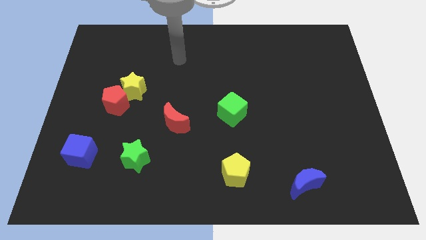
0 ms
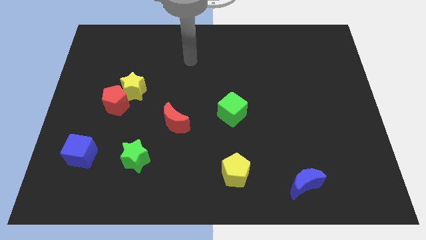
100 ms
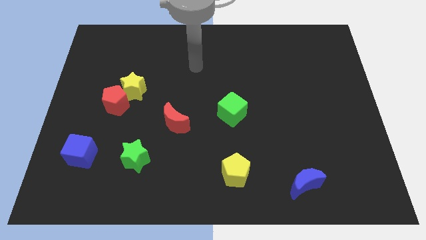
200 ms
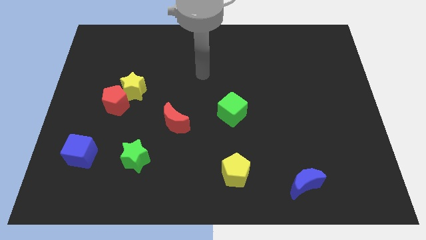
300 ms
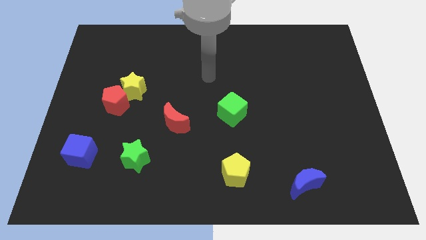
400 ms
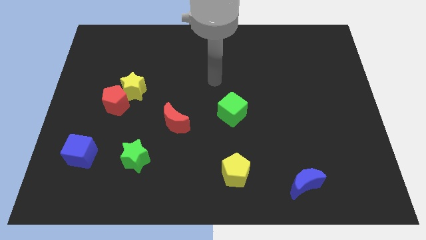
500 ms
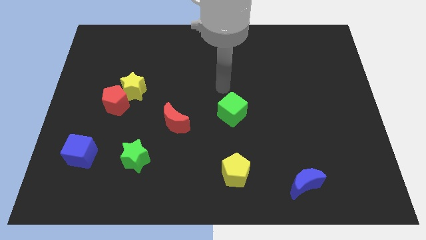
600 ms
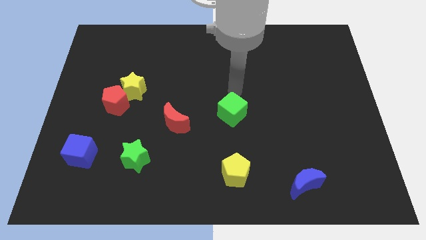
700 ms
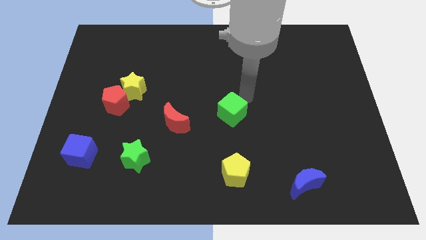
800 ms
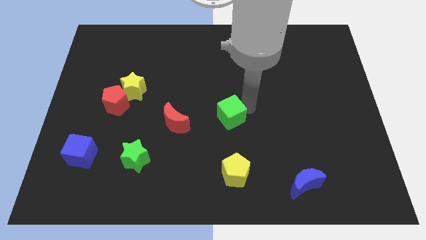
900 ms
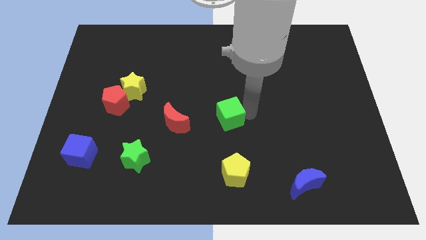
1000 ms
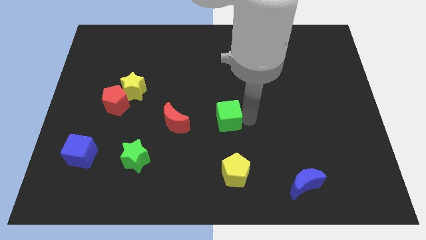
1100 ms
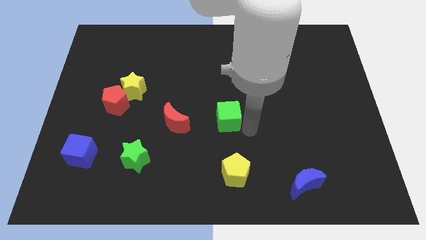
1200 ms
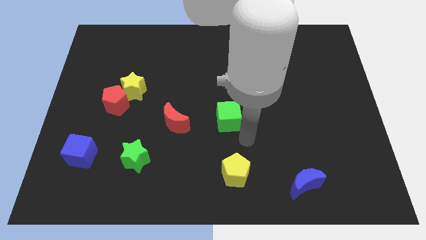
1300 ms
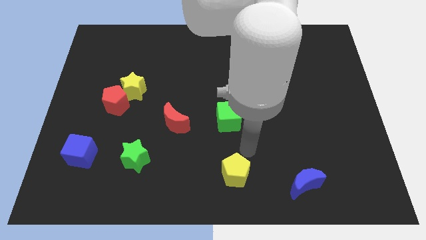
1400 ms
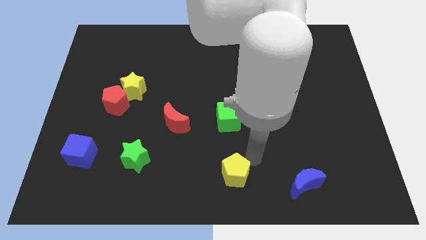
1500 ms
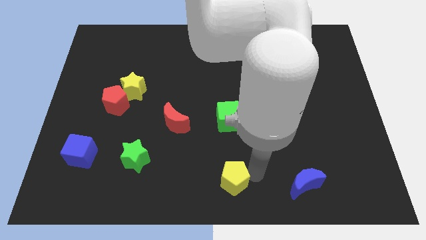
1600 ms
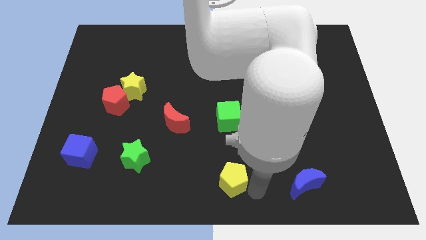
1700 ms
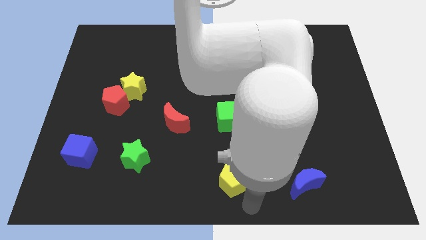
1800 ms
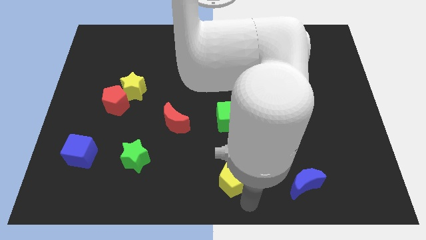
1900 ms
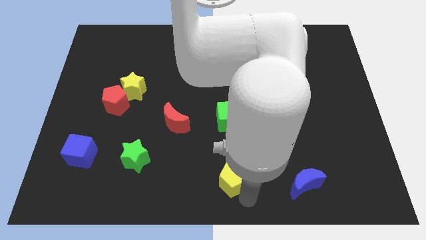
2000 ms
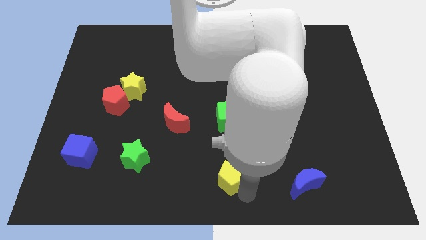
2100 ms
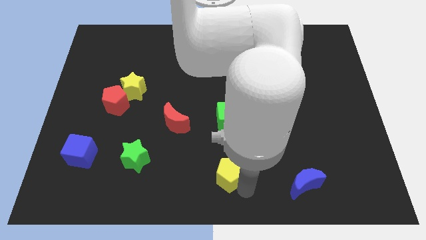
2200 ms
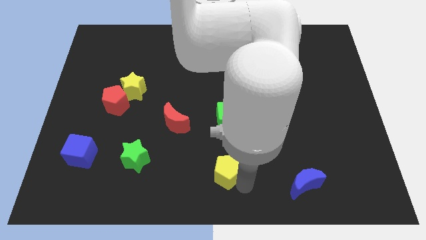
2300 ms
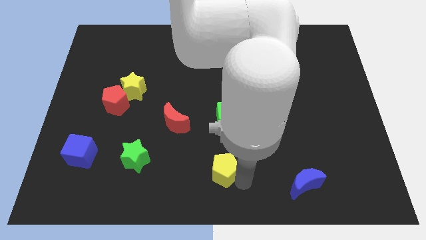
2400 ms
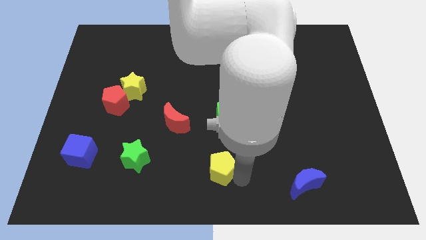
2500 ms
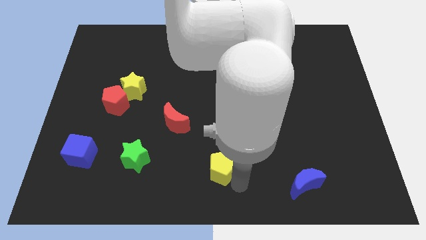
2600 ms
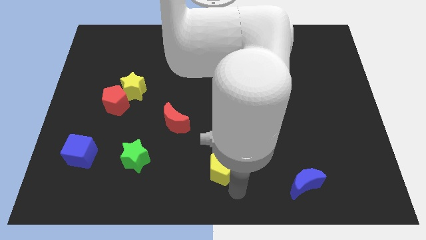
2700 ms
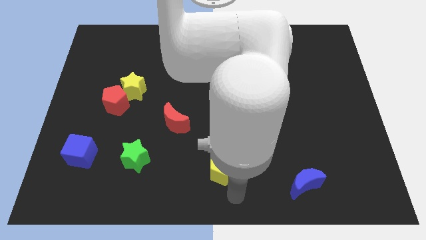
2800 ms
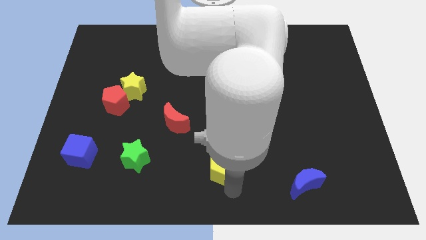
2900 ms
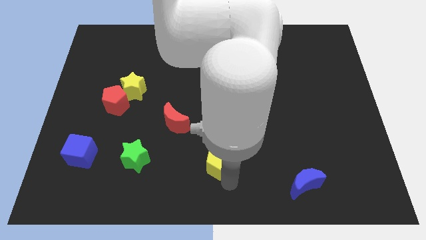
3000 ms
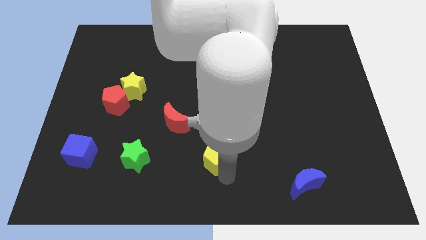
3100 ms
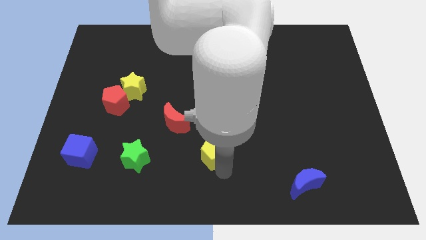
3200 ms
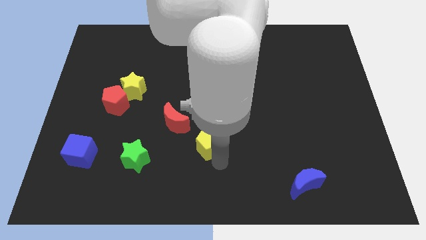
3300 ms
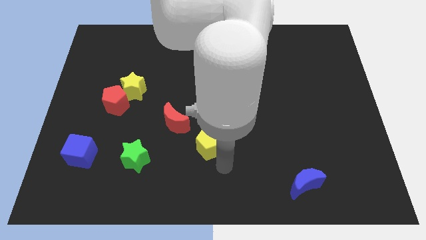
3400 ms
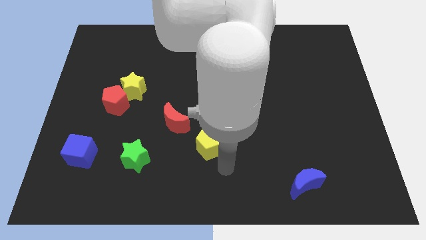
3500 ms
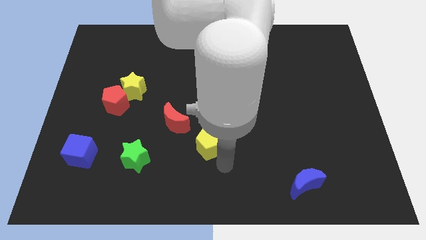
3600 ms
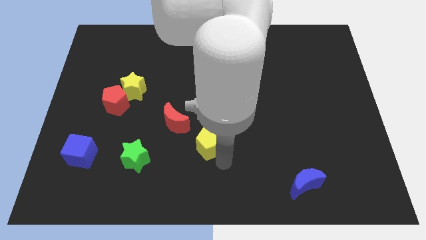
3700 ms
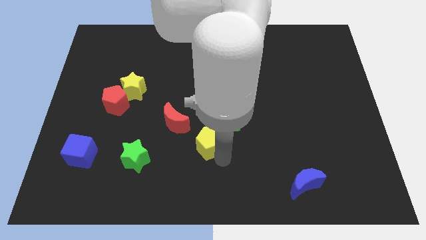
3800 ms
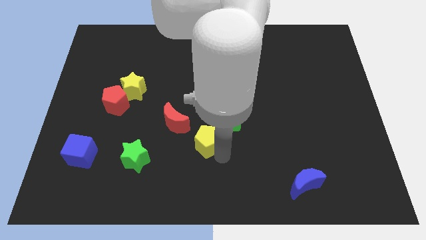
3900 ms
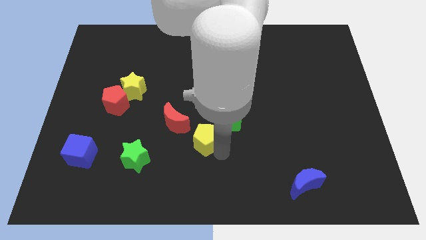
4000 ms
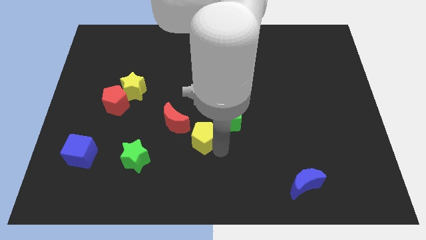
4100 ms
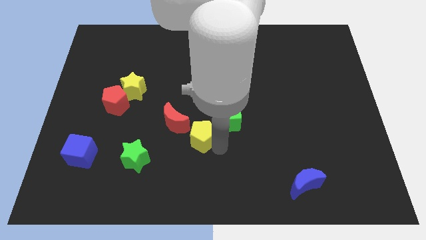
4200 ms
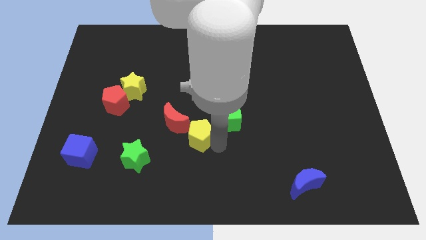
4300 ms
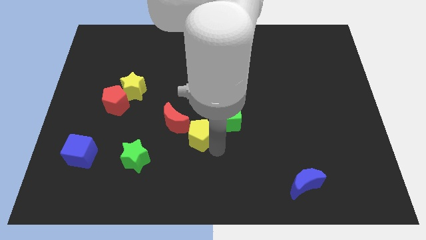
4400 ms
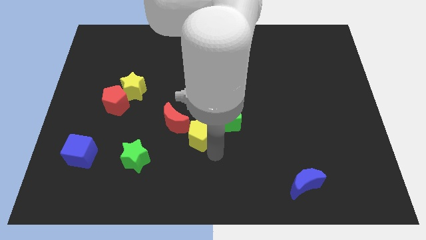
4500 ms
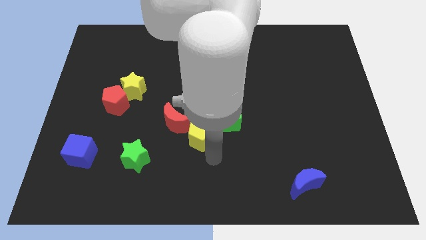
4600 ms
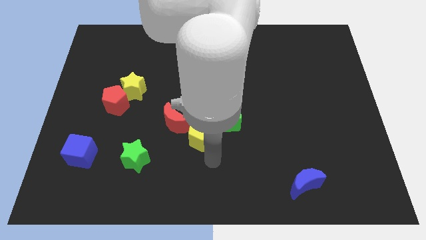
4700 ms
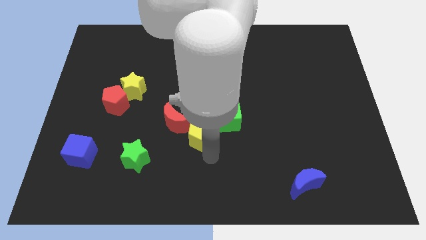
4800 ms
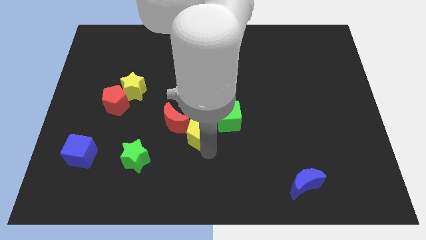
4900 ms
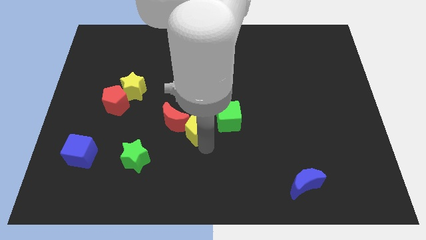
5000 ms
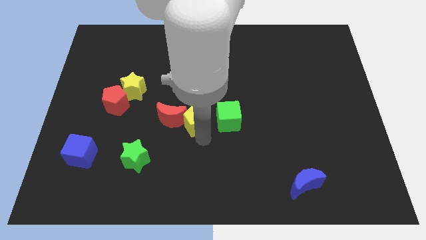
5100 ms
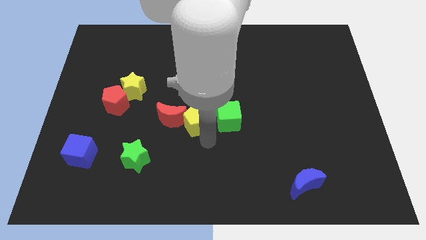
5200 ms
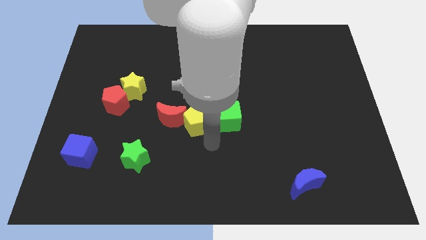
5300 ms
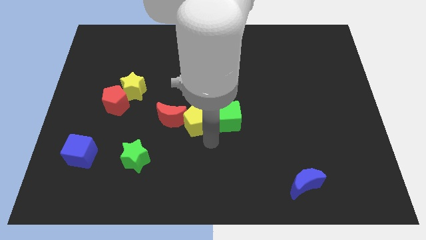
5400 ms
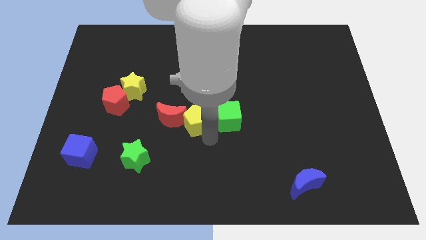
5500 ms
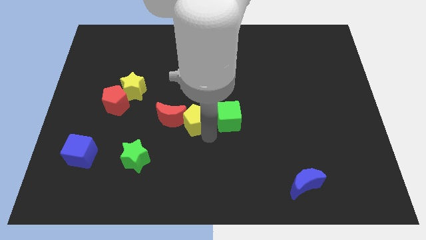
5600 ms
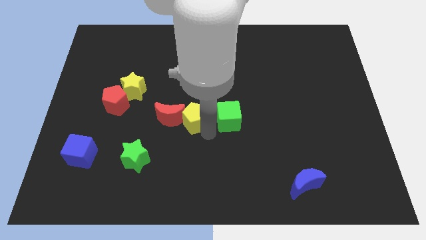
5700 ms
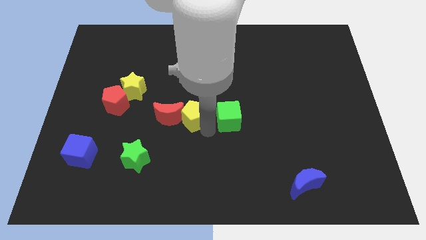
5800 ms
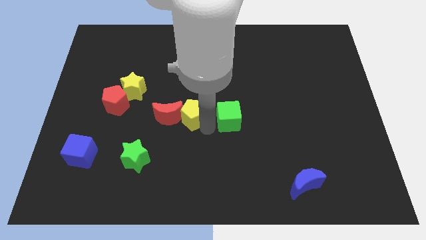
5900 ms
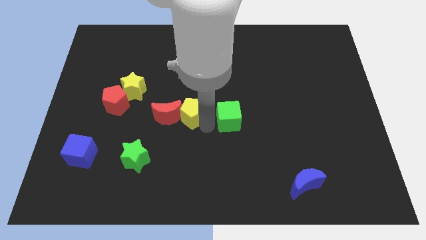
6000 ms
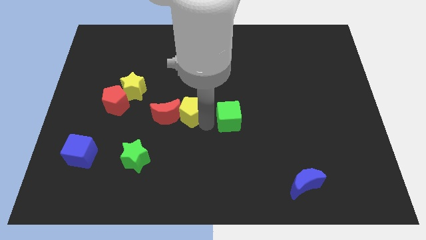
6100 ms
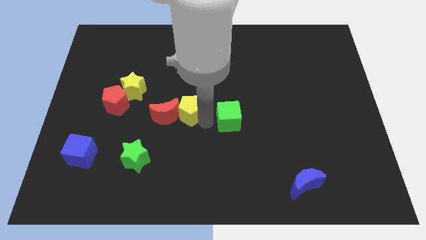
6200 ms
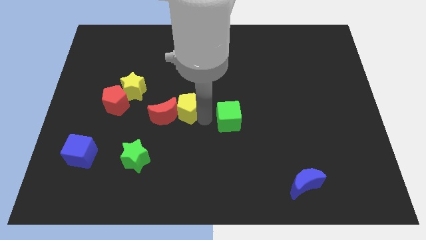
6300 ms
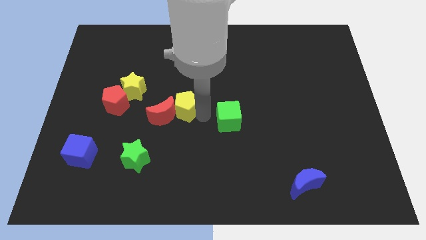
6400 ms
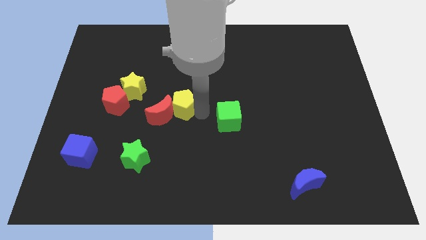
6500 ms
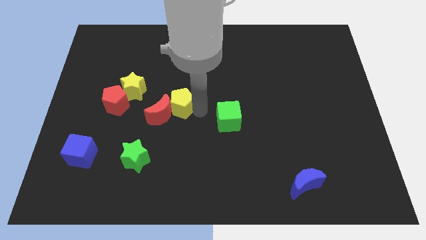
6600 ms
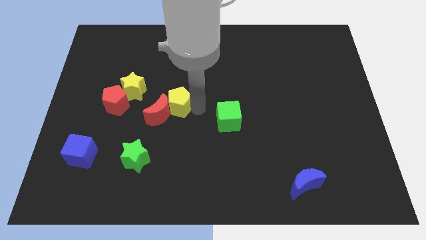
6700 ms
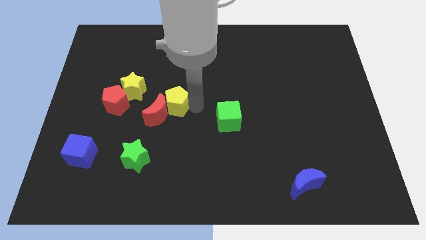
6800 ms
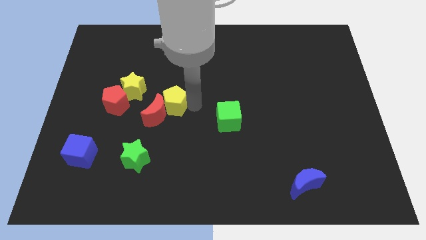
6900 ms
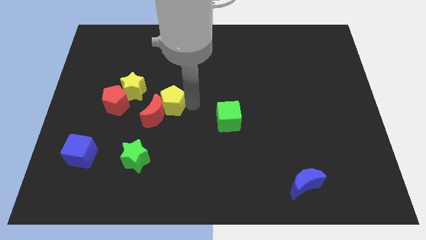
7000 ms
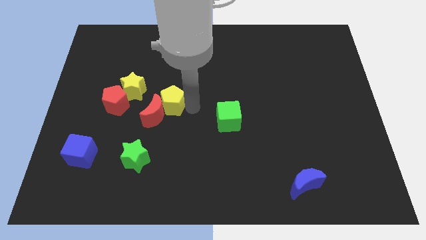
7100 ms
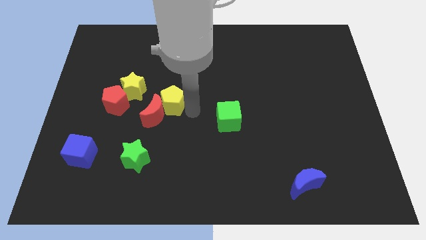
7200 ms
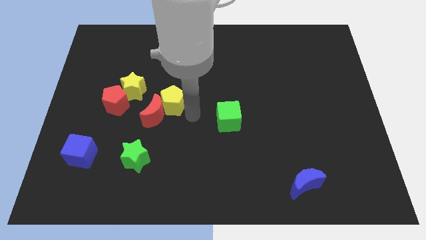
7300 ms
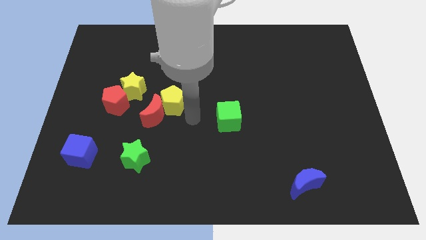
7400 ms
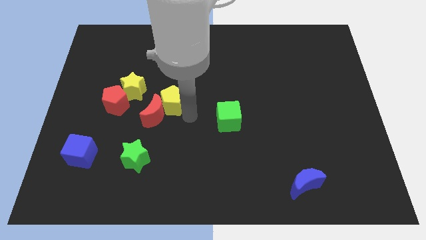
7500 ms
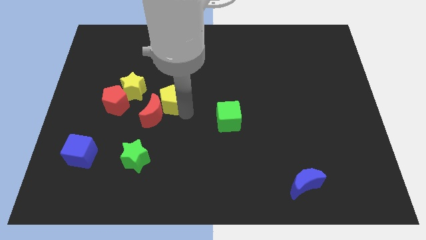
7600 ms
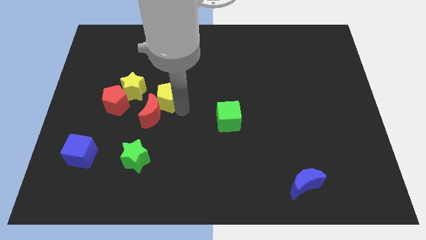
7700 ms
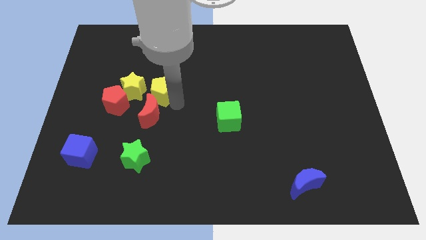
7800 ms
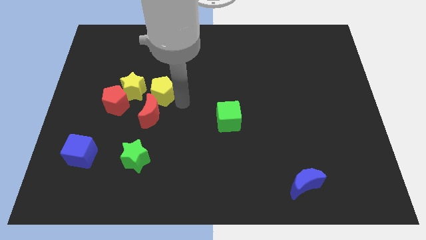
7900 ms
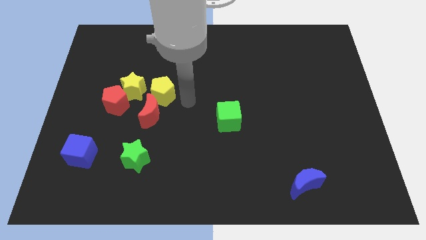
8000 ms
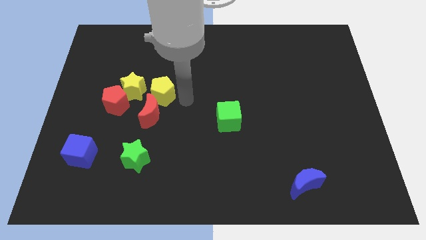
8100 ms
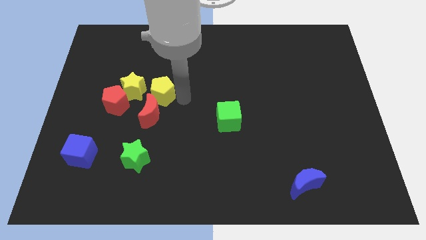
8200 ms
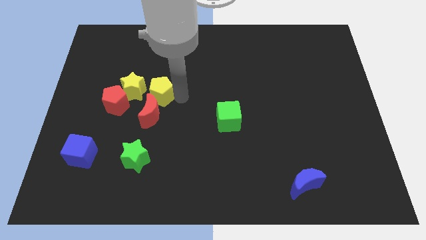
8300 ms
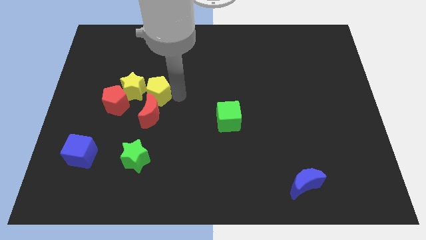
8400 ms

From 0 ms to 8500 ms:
put the yellow pentagon to the top right side of the red pentagon
